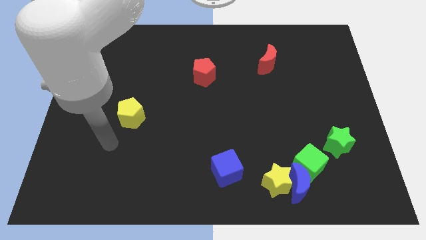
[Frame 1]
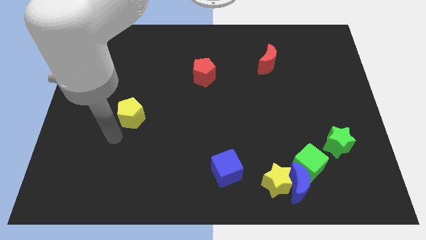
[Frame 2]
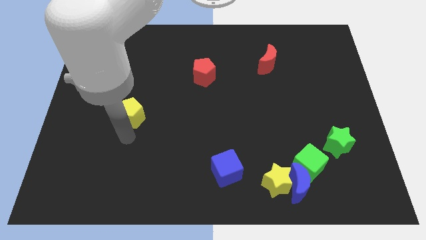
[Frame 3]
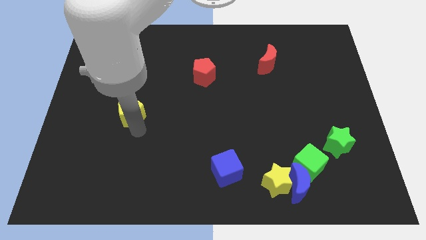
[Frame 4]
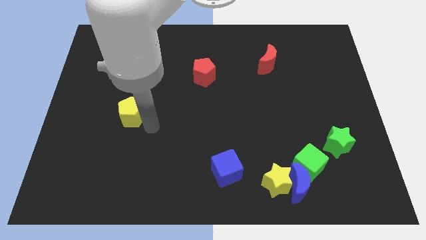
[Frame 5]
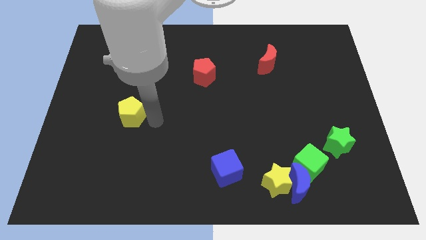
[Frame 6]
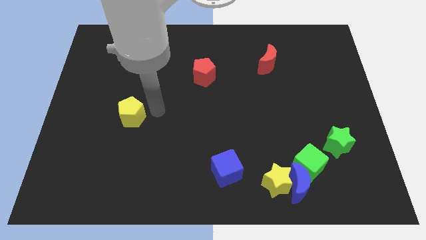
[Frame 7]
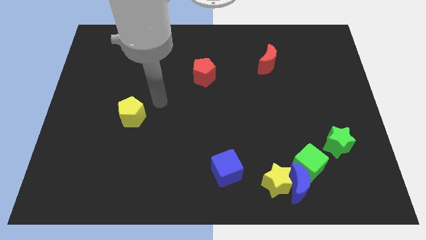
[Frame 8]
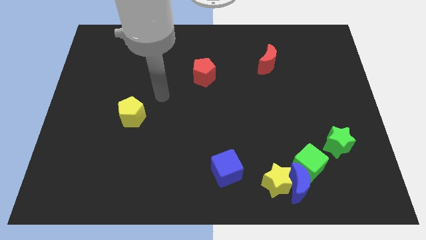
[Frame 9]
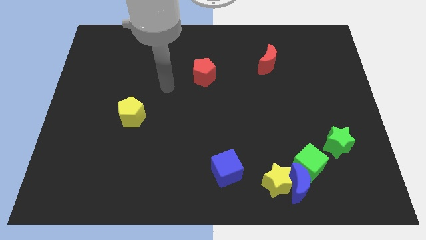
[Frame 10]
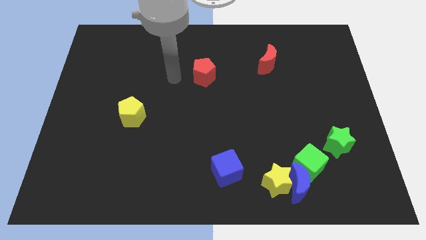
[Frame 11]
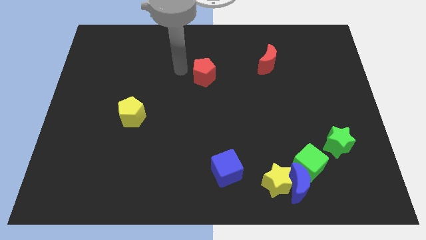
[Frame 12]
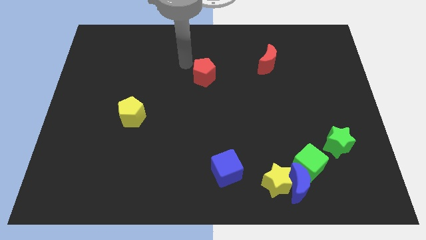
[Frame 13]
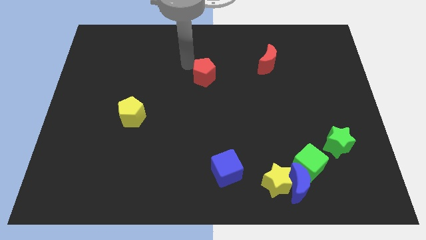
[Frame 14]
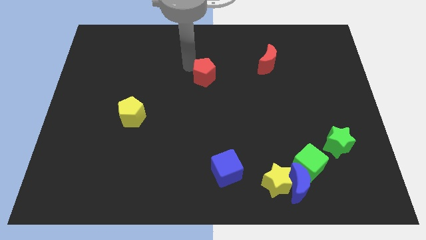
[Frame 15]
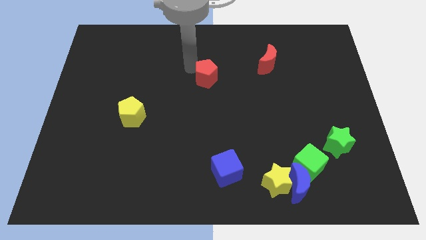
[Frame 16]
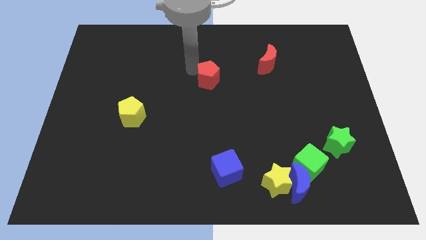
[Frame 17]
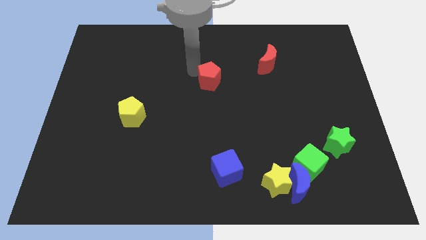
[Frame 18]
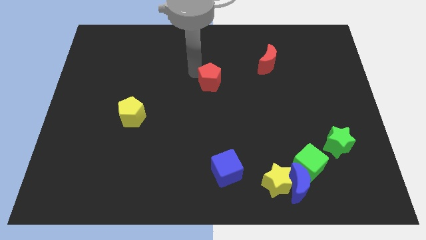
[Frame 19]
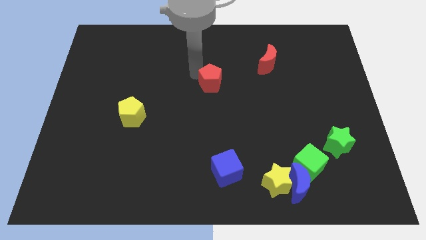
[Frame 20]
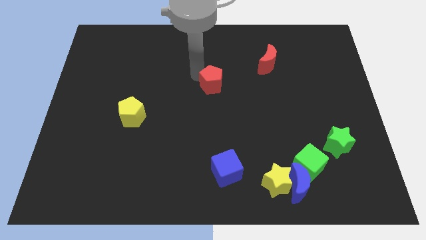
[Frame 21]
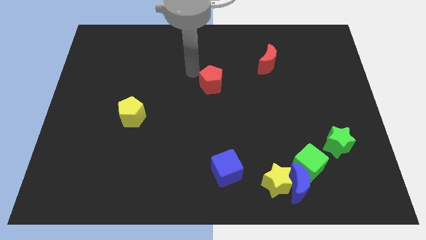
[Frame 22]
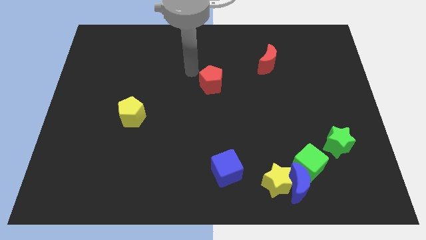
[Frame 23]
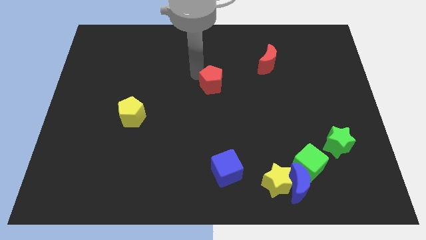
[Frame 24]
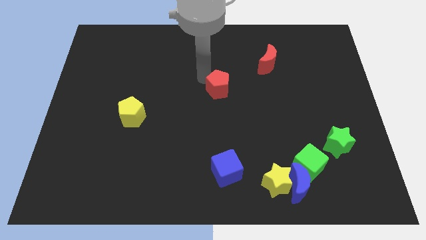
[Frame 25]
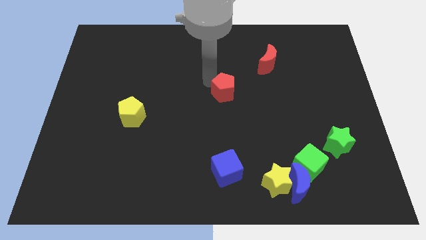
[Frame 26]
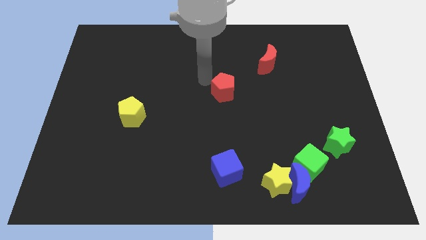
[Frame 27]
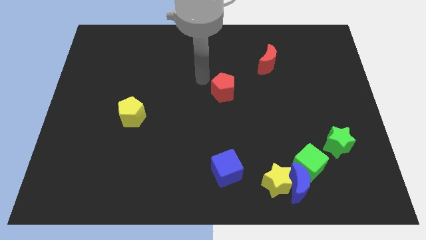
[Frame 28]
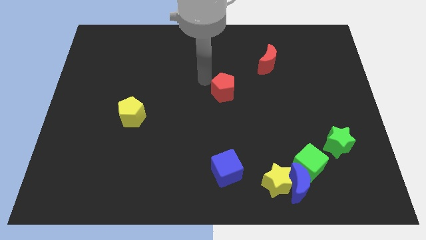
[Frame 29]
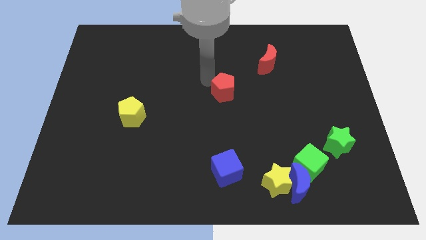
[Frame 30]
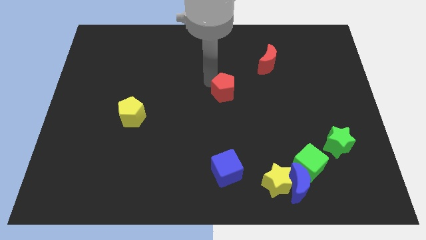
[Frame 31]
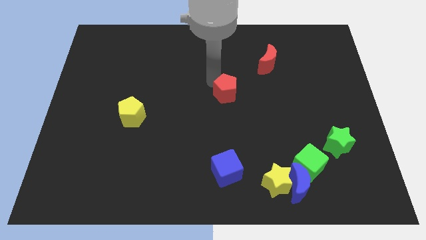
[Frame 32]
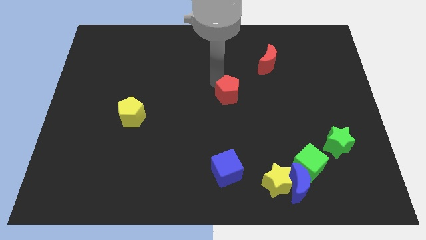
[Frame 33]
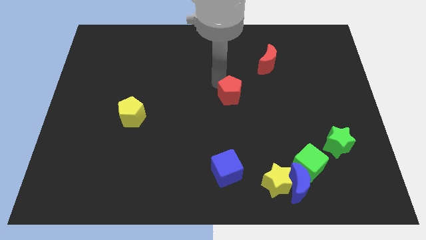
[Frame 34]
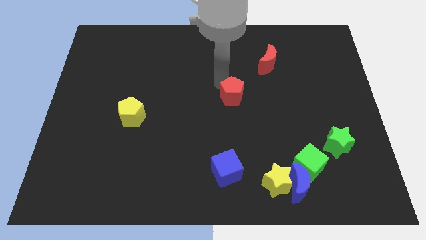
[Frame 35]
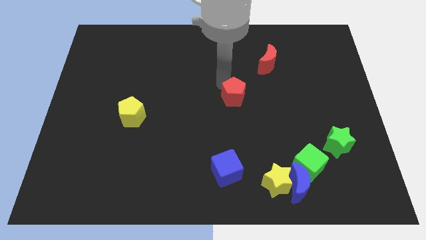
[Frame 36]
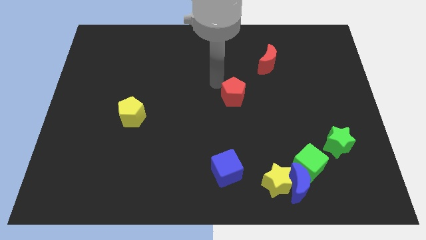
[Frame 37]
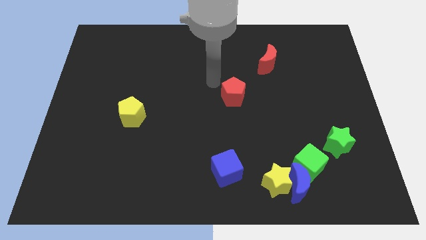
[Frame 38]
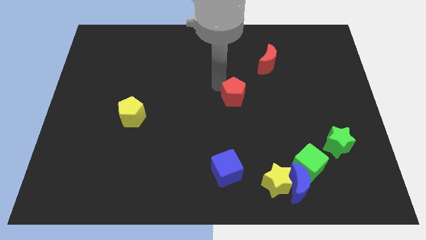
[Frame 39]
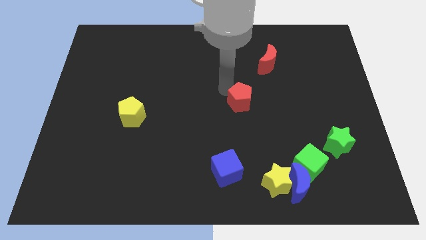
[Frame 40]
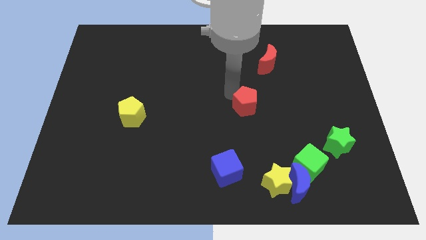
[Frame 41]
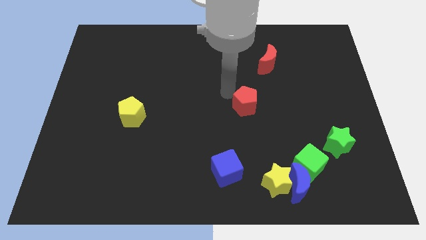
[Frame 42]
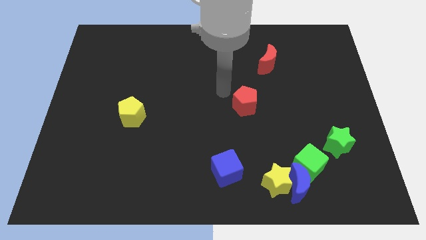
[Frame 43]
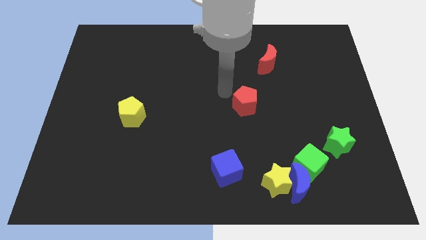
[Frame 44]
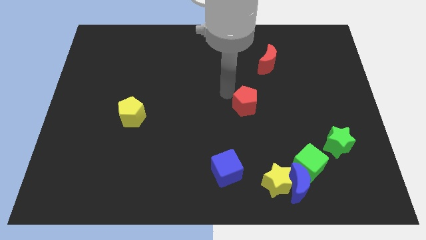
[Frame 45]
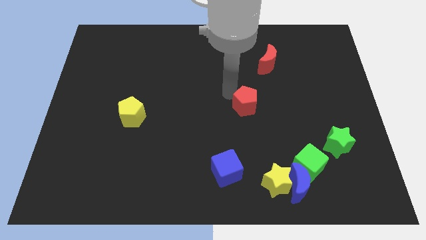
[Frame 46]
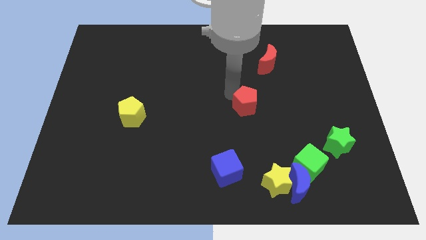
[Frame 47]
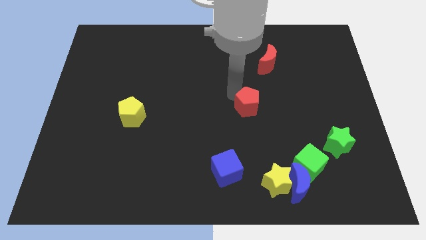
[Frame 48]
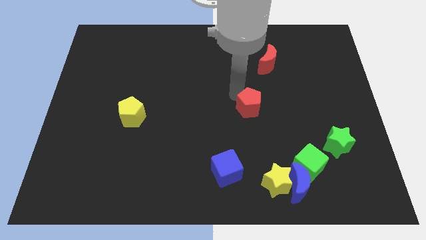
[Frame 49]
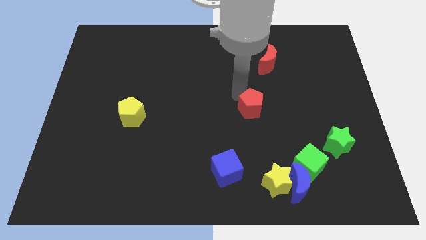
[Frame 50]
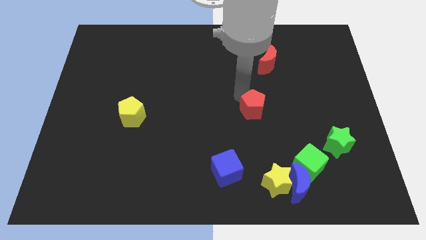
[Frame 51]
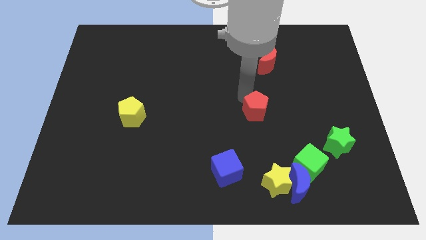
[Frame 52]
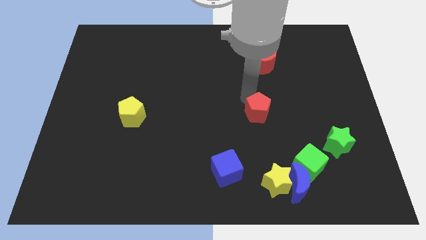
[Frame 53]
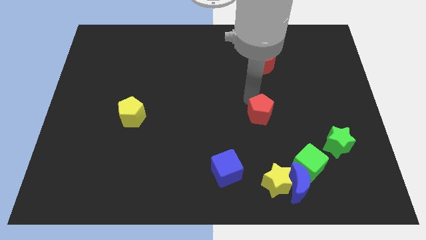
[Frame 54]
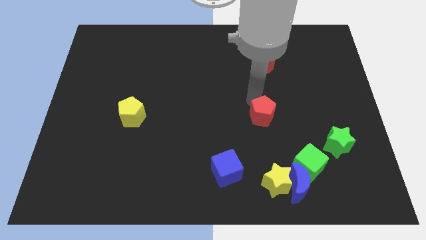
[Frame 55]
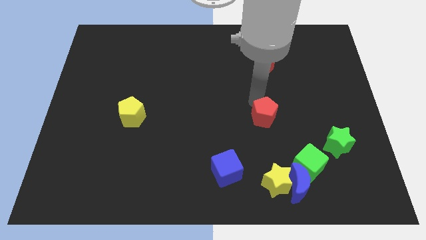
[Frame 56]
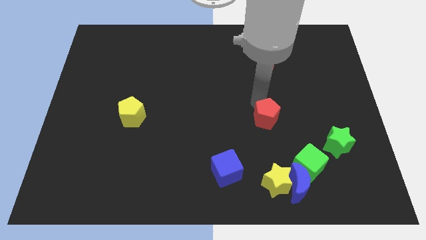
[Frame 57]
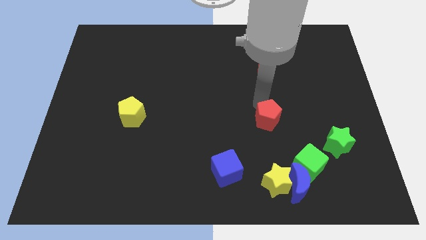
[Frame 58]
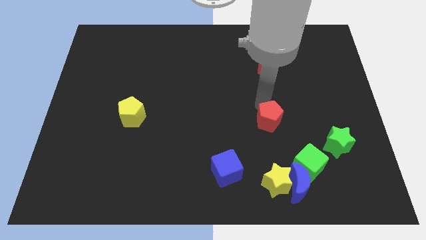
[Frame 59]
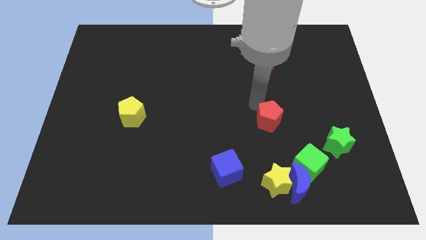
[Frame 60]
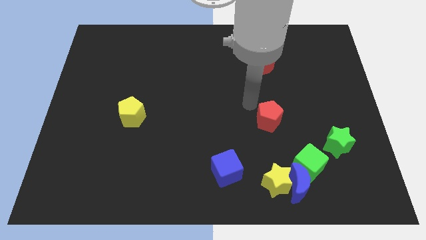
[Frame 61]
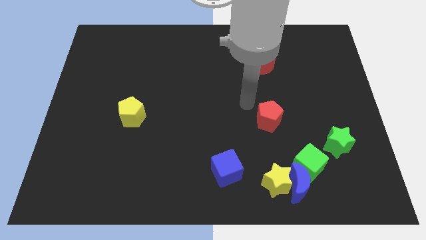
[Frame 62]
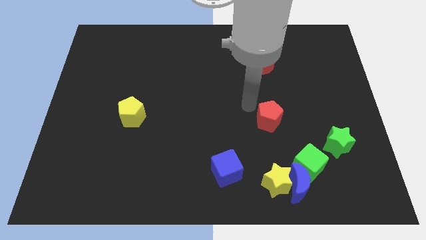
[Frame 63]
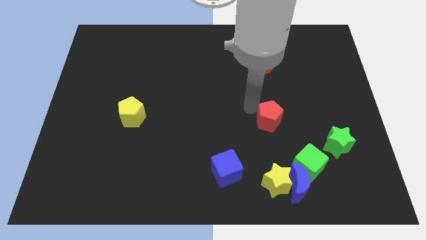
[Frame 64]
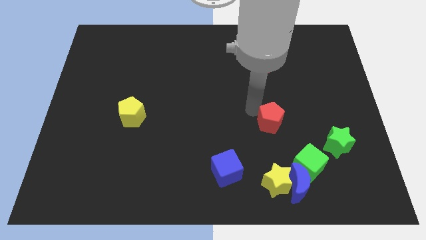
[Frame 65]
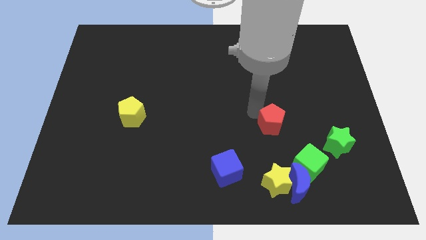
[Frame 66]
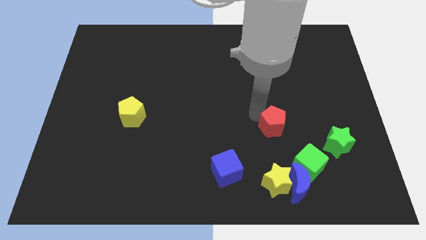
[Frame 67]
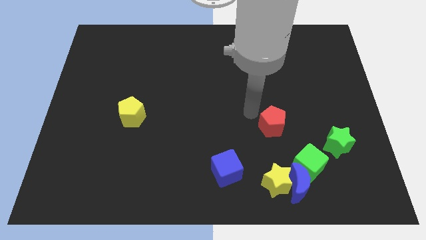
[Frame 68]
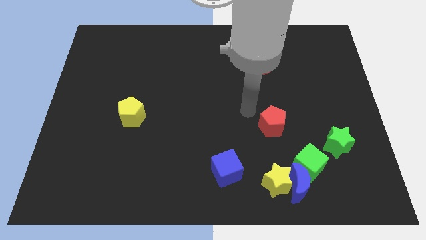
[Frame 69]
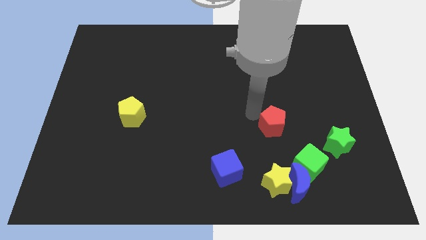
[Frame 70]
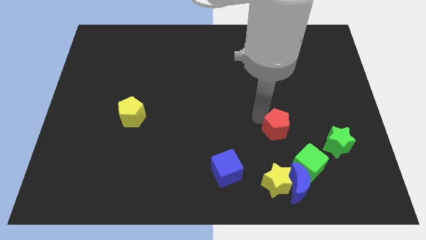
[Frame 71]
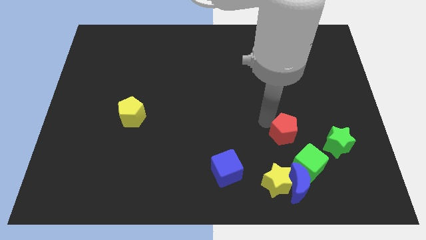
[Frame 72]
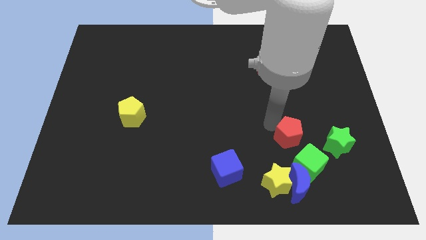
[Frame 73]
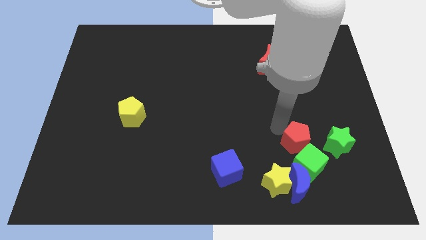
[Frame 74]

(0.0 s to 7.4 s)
move the red pentagon diagonally up and to the right of the yellow star

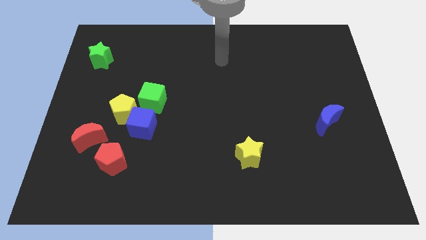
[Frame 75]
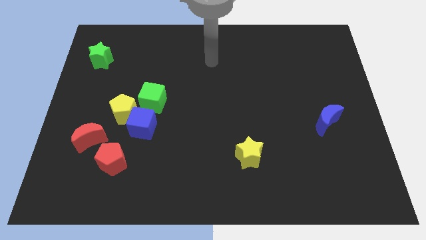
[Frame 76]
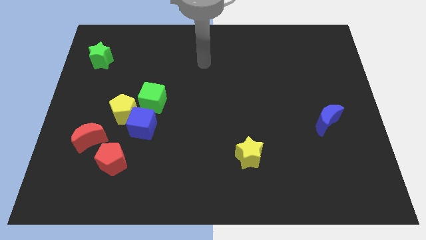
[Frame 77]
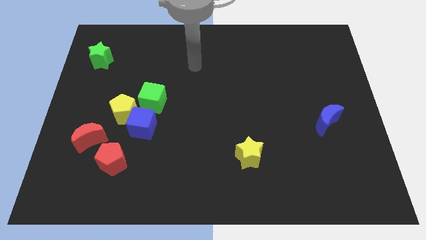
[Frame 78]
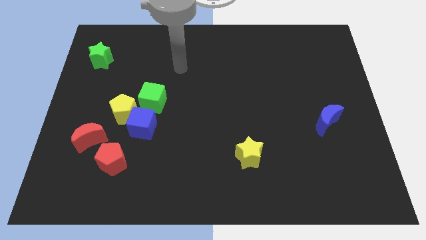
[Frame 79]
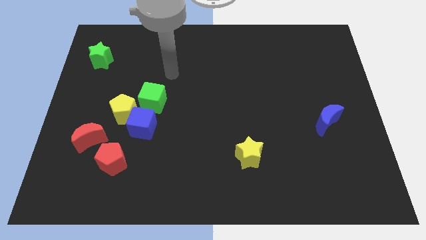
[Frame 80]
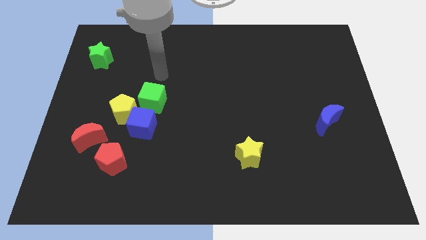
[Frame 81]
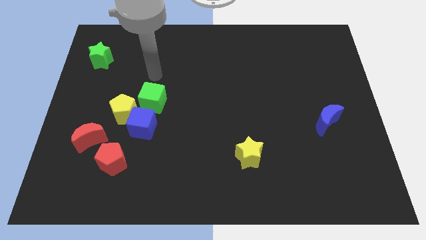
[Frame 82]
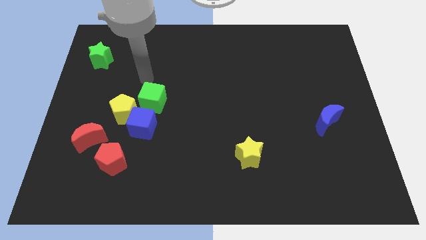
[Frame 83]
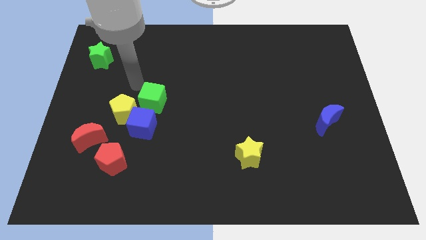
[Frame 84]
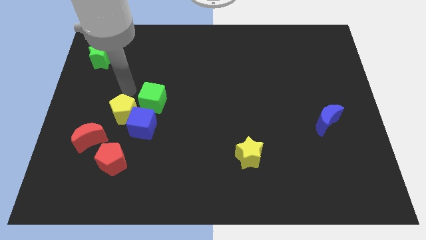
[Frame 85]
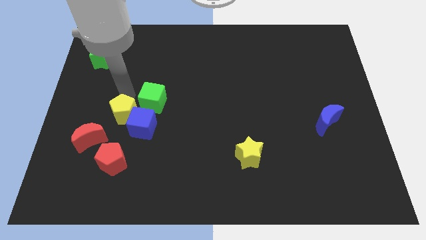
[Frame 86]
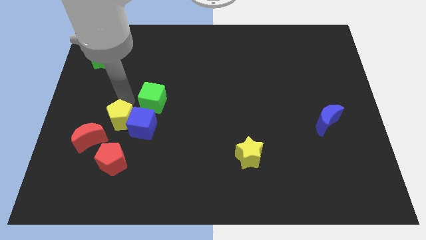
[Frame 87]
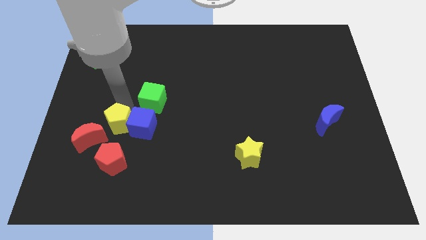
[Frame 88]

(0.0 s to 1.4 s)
put the yellow pentagon to the right side of the red moon
